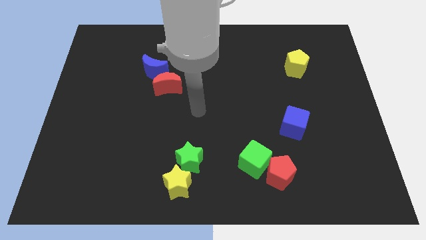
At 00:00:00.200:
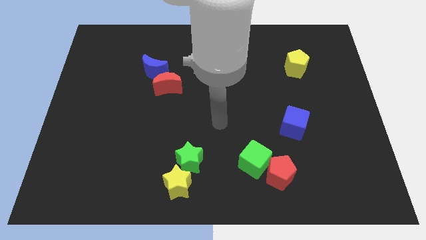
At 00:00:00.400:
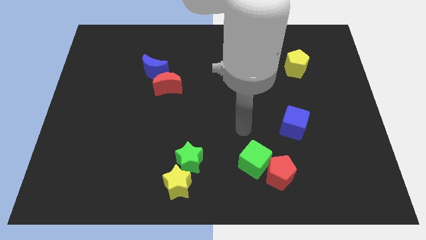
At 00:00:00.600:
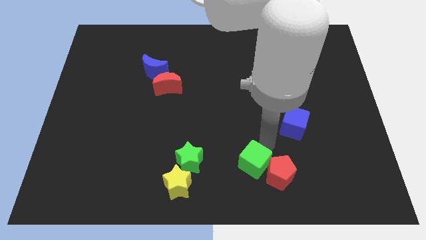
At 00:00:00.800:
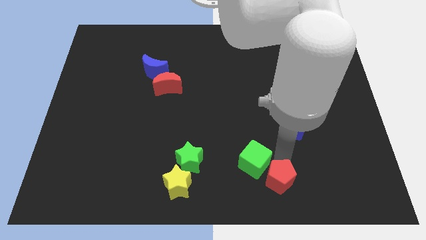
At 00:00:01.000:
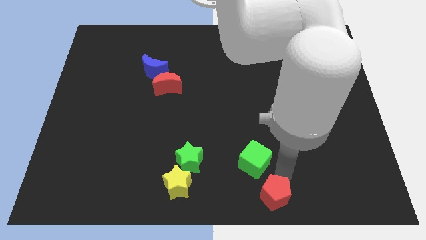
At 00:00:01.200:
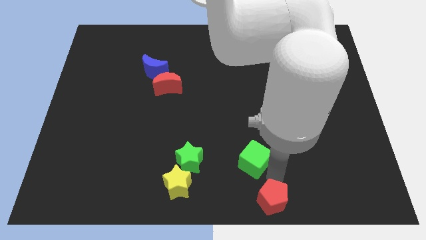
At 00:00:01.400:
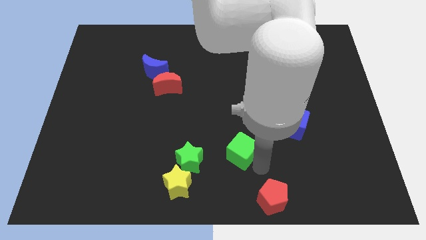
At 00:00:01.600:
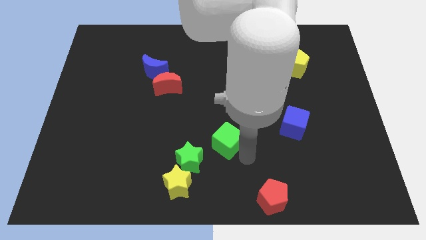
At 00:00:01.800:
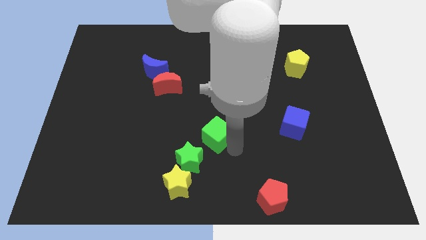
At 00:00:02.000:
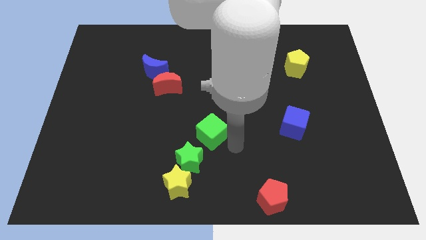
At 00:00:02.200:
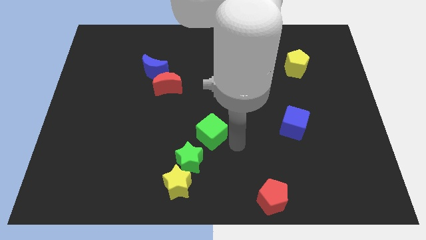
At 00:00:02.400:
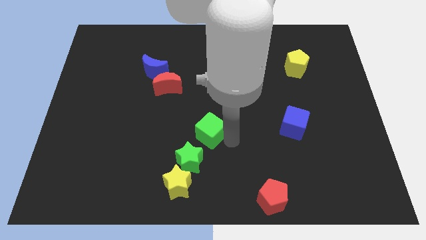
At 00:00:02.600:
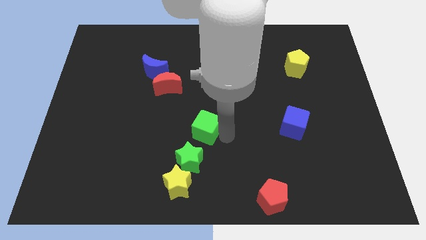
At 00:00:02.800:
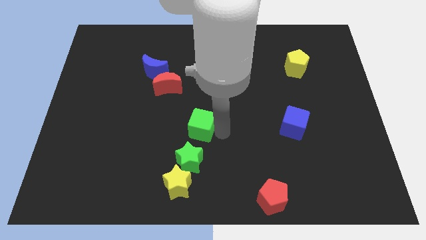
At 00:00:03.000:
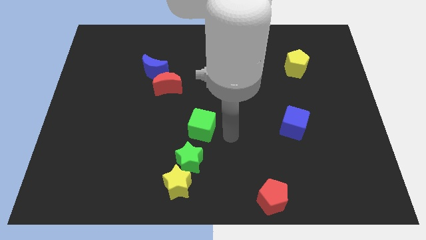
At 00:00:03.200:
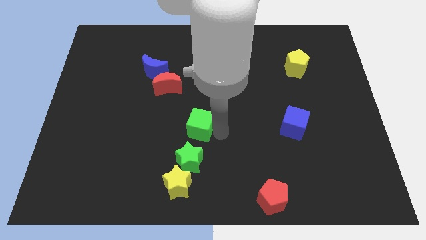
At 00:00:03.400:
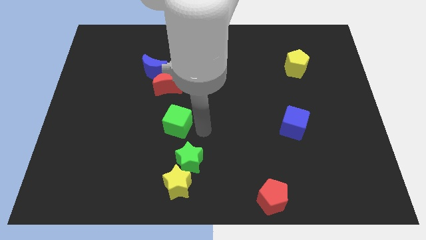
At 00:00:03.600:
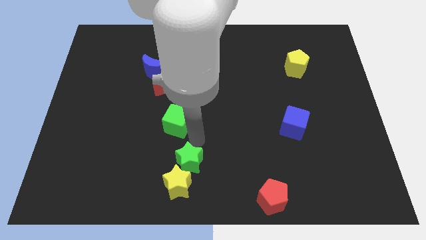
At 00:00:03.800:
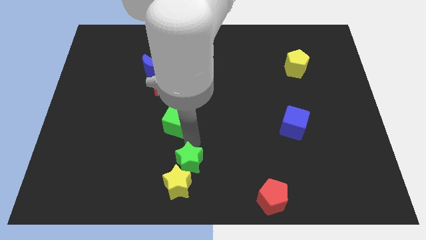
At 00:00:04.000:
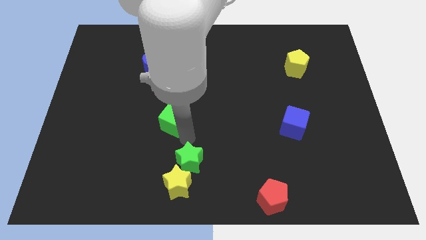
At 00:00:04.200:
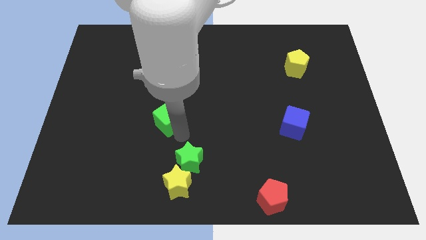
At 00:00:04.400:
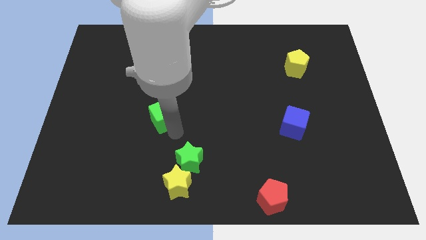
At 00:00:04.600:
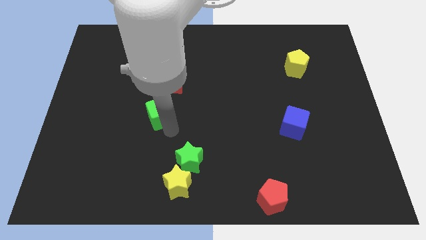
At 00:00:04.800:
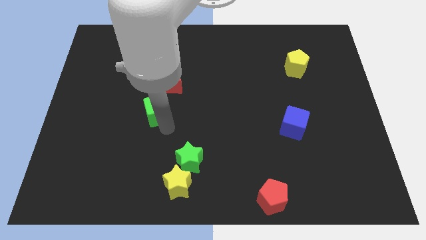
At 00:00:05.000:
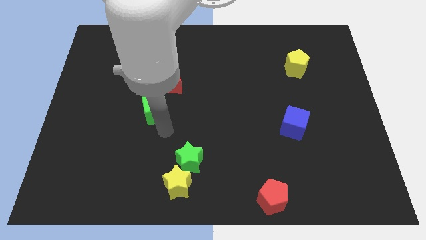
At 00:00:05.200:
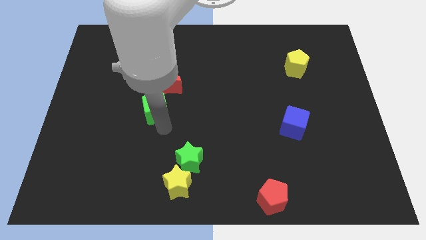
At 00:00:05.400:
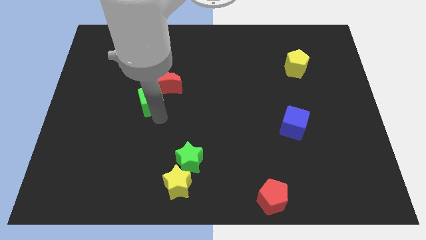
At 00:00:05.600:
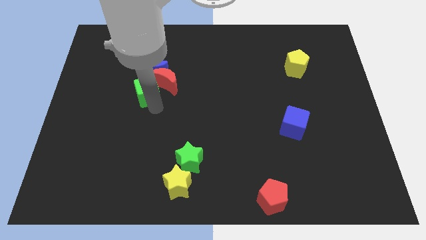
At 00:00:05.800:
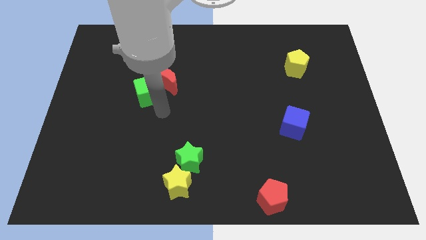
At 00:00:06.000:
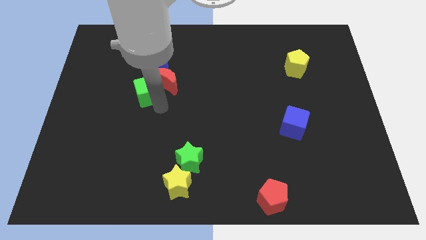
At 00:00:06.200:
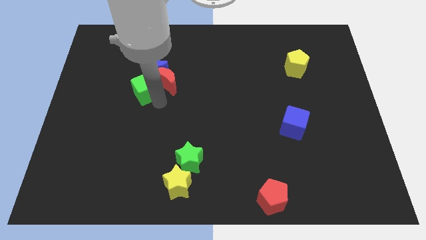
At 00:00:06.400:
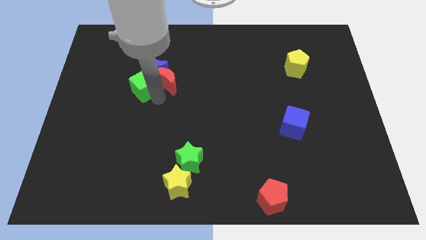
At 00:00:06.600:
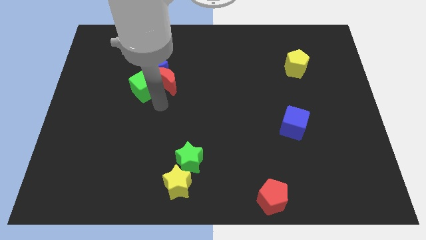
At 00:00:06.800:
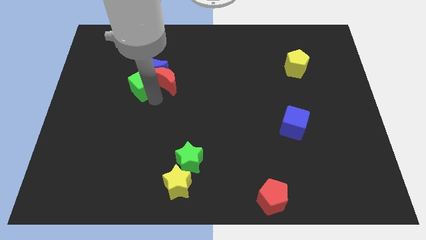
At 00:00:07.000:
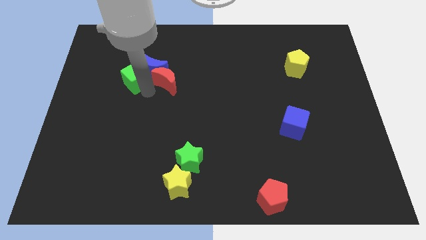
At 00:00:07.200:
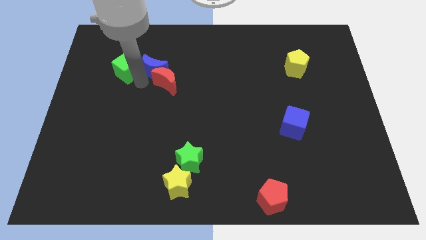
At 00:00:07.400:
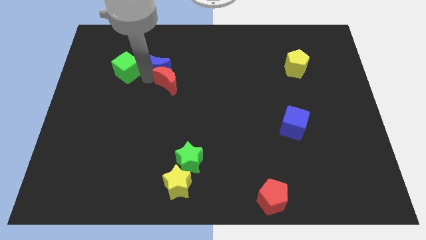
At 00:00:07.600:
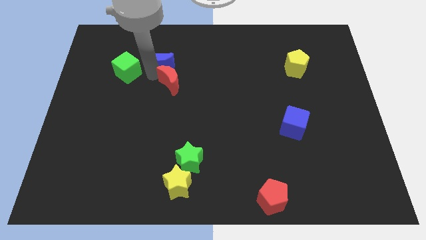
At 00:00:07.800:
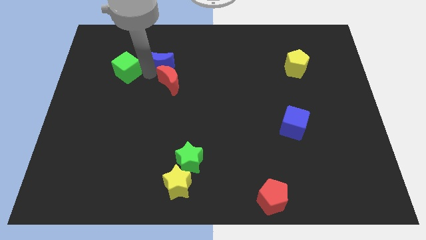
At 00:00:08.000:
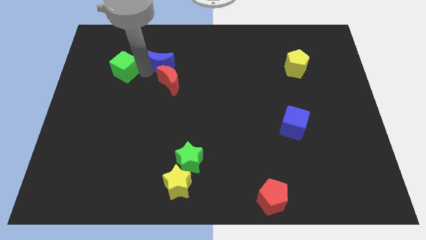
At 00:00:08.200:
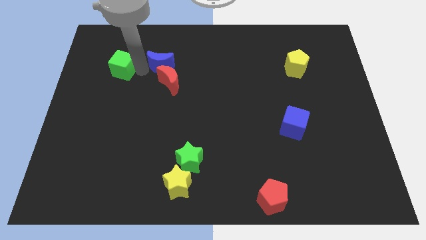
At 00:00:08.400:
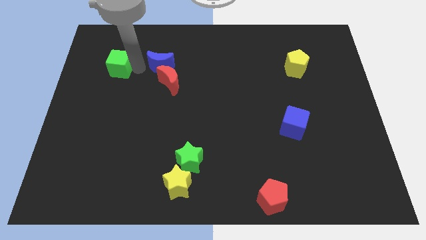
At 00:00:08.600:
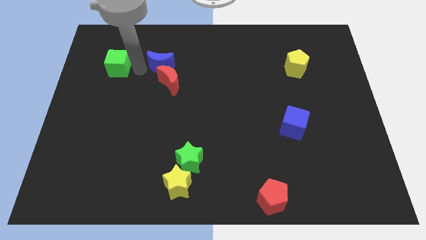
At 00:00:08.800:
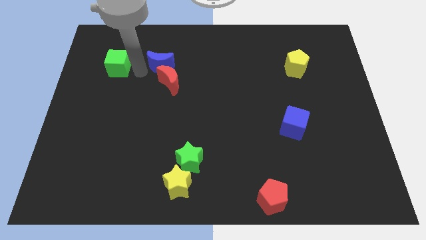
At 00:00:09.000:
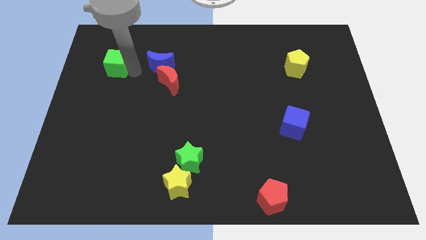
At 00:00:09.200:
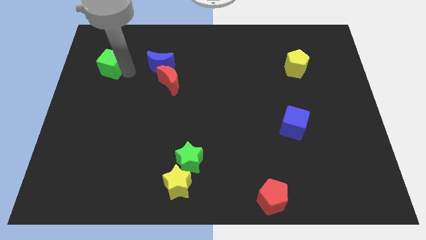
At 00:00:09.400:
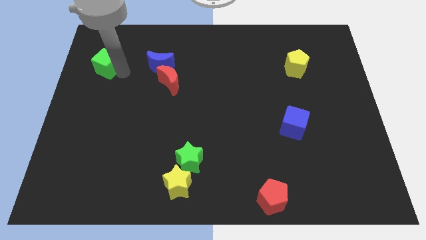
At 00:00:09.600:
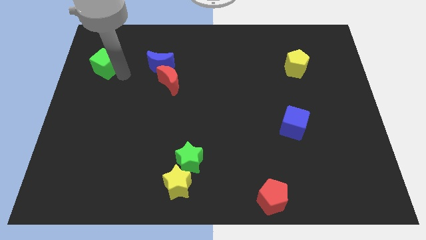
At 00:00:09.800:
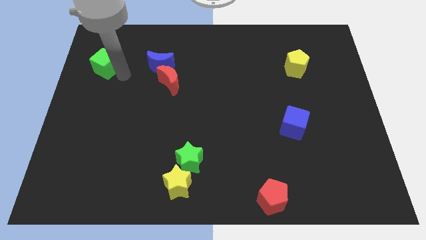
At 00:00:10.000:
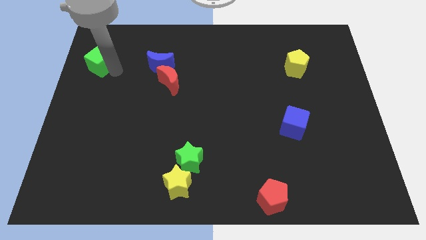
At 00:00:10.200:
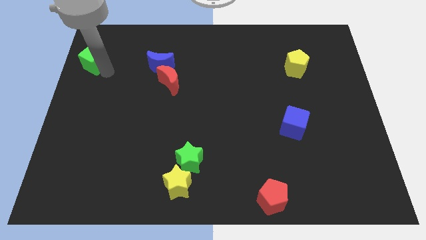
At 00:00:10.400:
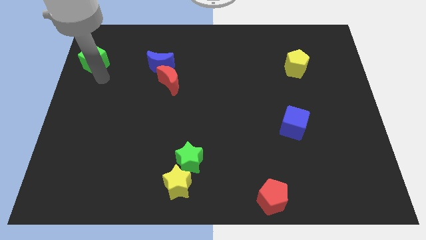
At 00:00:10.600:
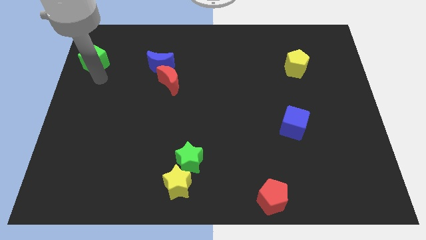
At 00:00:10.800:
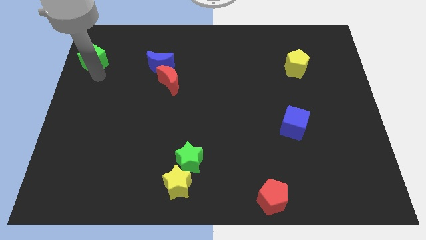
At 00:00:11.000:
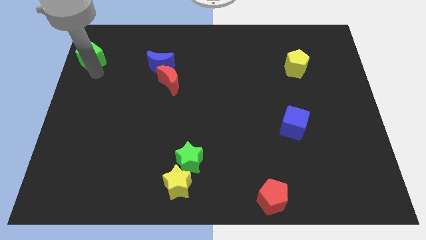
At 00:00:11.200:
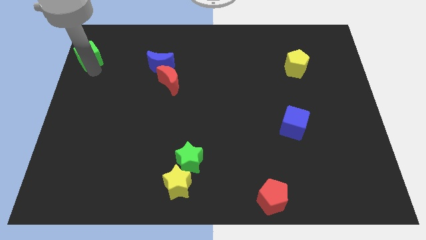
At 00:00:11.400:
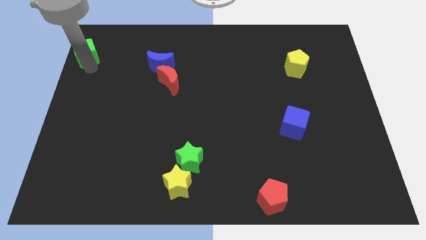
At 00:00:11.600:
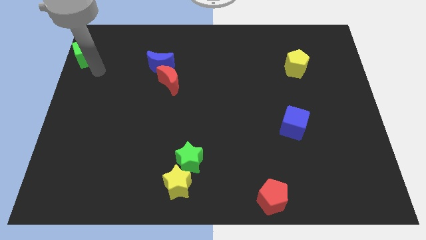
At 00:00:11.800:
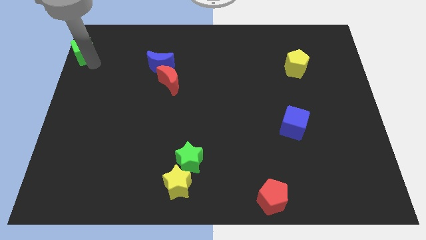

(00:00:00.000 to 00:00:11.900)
move the green cube to the top left corner
